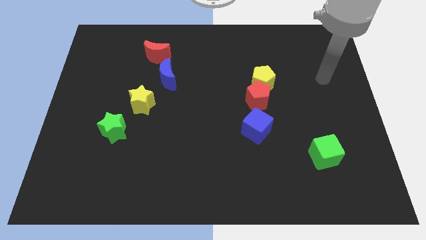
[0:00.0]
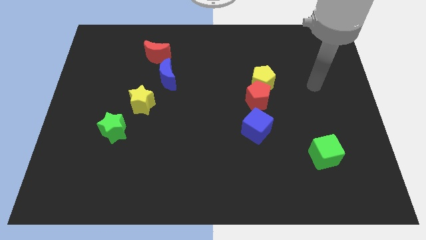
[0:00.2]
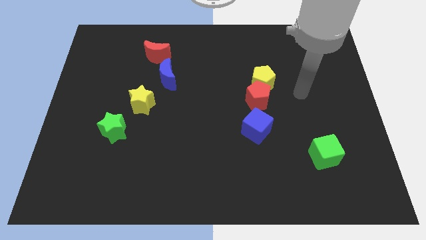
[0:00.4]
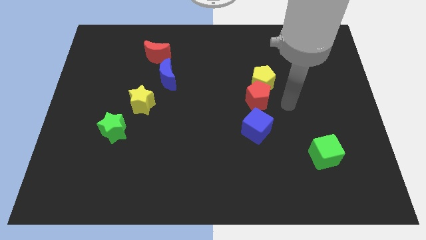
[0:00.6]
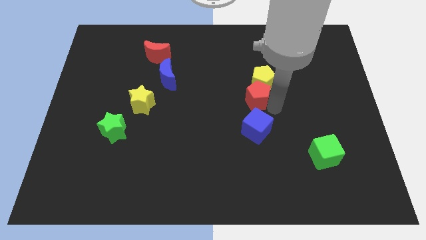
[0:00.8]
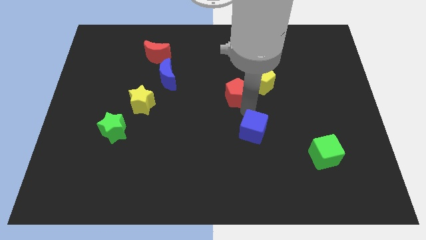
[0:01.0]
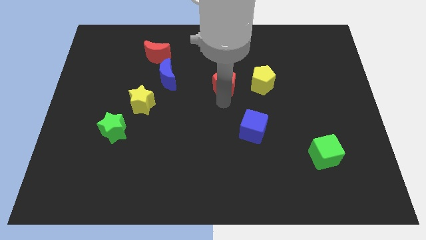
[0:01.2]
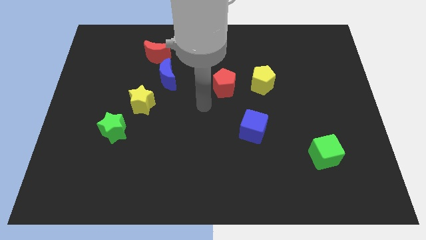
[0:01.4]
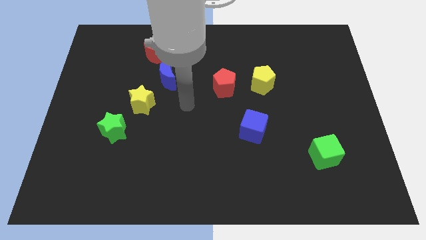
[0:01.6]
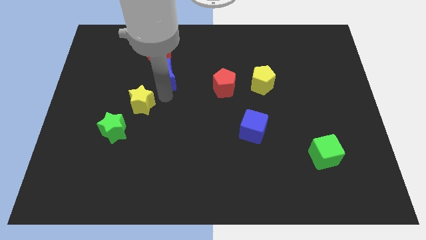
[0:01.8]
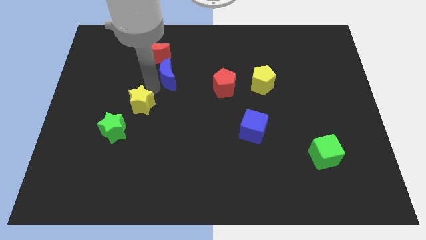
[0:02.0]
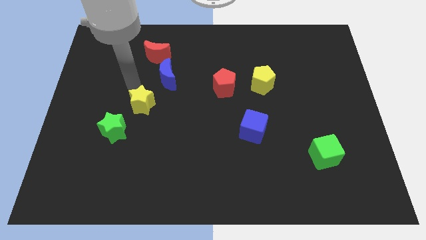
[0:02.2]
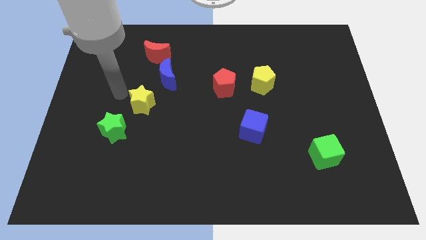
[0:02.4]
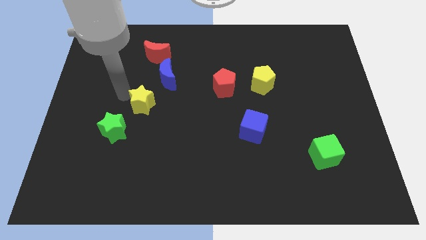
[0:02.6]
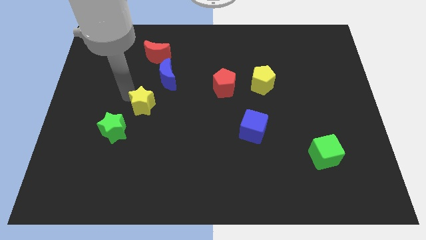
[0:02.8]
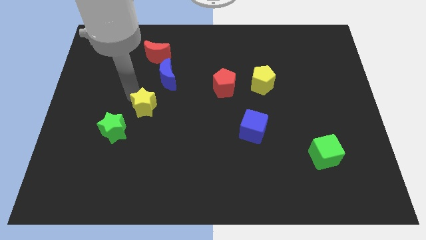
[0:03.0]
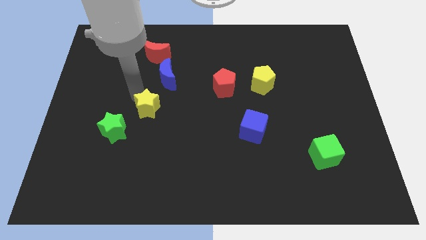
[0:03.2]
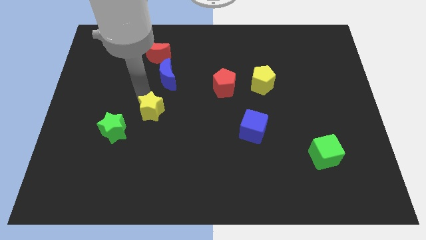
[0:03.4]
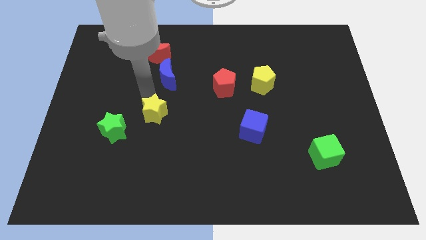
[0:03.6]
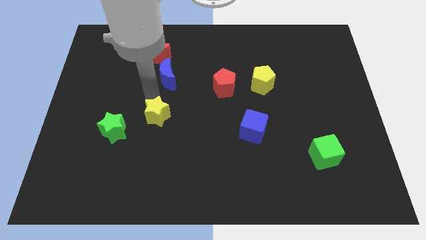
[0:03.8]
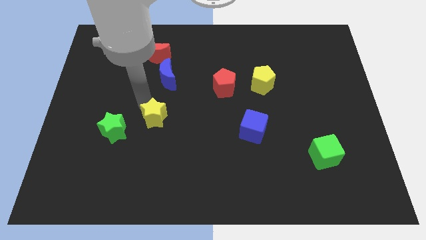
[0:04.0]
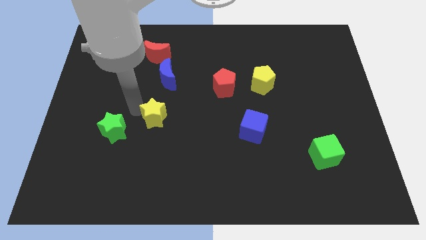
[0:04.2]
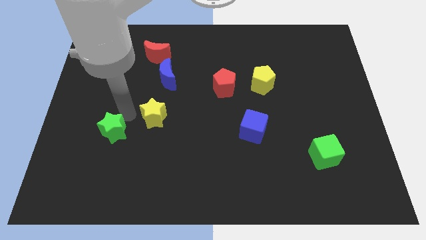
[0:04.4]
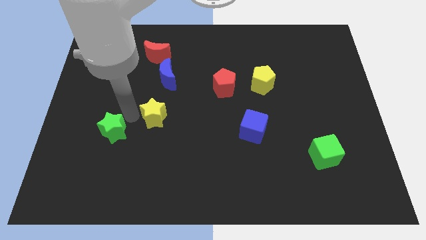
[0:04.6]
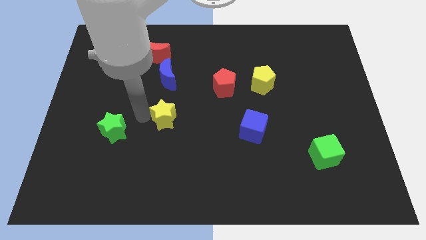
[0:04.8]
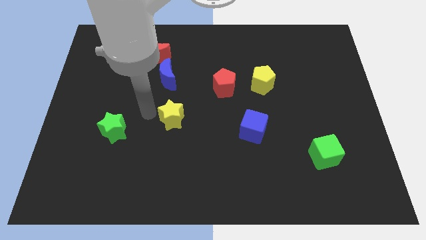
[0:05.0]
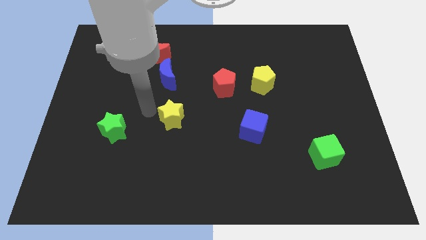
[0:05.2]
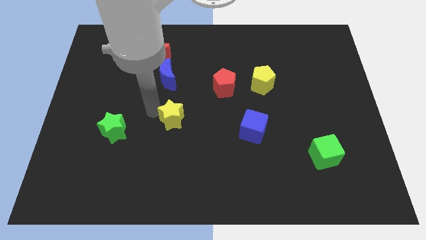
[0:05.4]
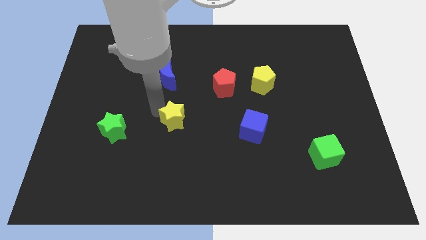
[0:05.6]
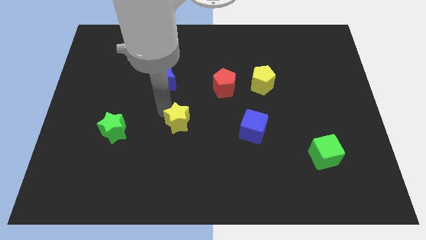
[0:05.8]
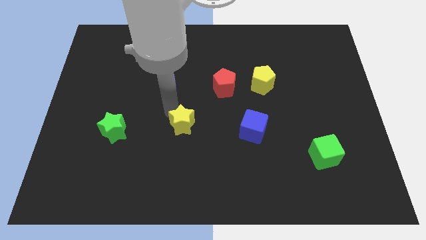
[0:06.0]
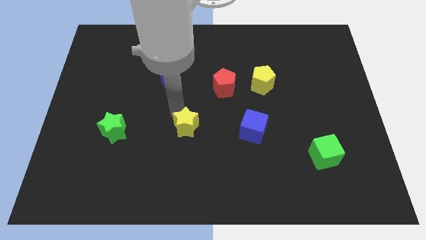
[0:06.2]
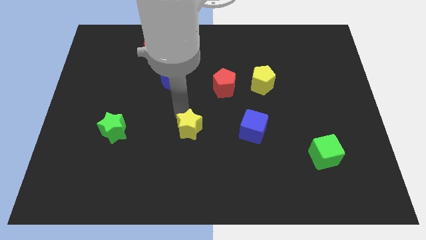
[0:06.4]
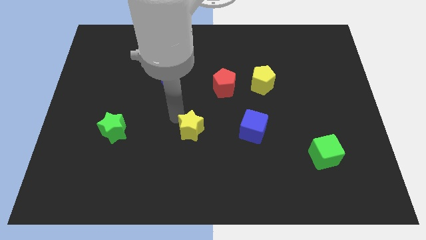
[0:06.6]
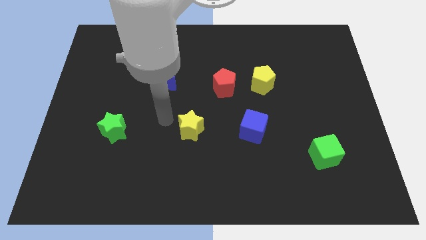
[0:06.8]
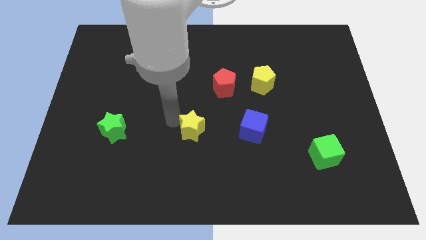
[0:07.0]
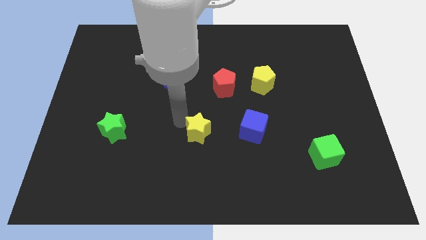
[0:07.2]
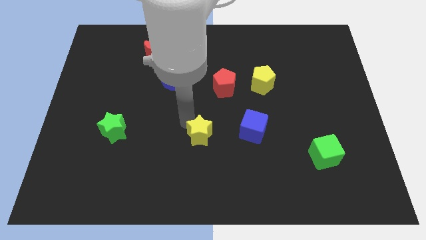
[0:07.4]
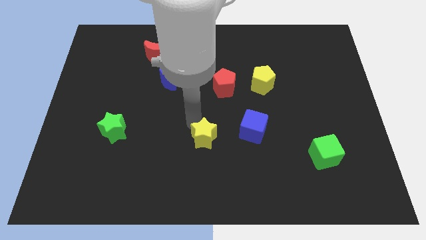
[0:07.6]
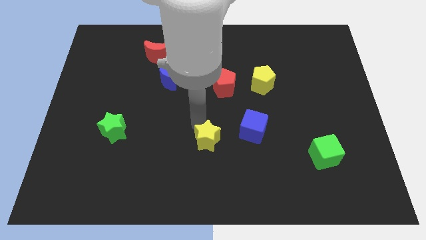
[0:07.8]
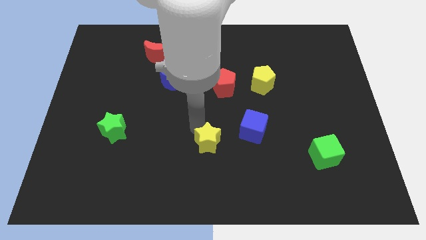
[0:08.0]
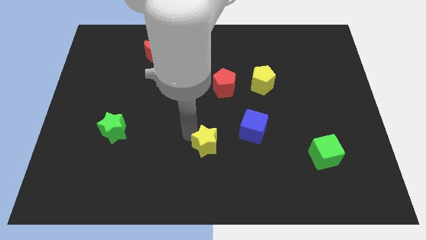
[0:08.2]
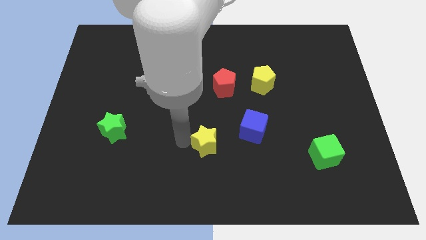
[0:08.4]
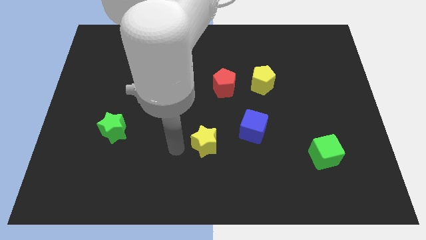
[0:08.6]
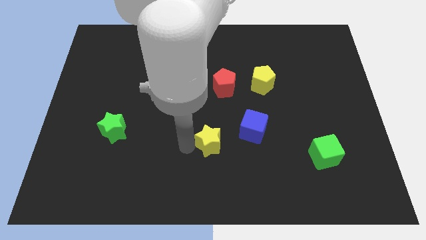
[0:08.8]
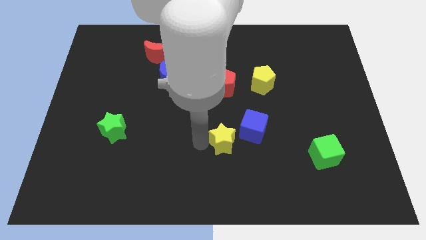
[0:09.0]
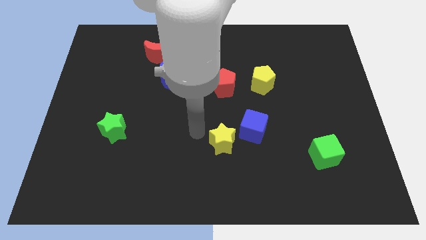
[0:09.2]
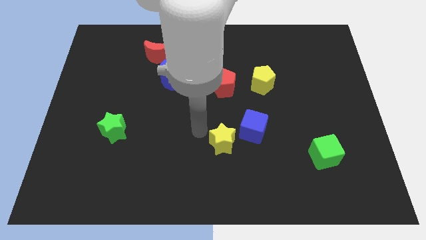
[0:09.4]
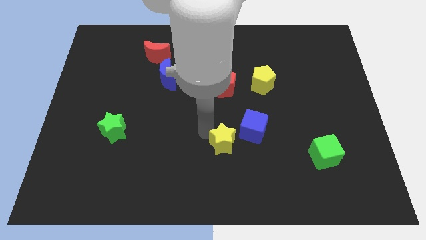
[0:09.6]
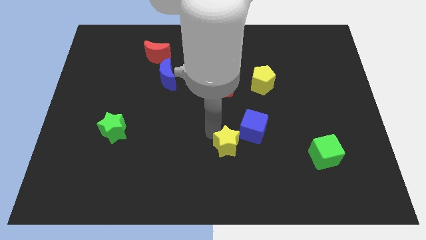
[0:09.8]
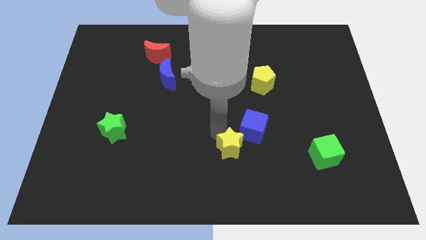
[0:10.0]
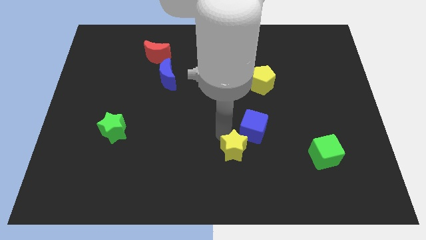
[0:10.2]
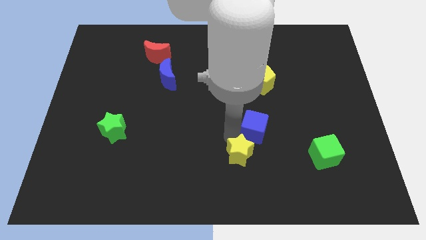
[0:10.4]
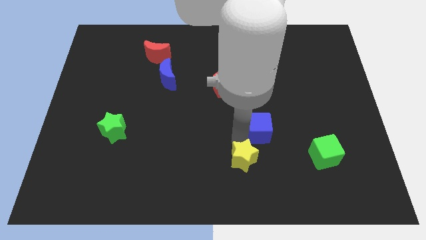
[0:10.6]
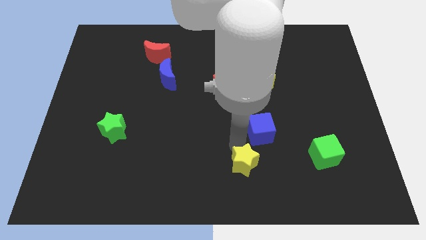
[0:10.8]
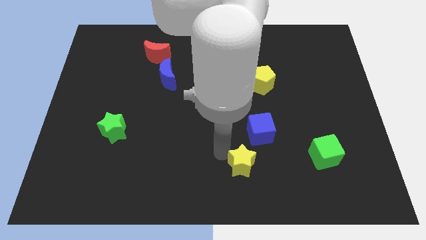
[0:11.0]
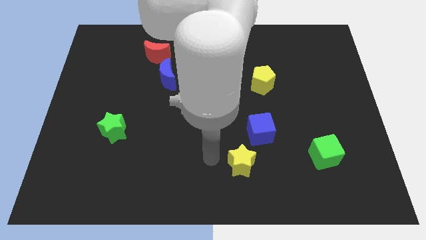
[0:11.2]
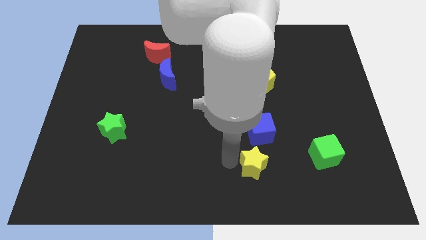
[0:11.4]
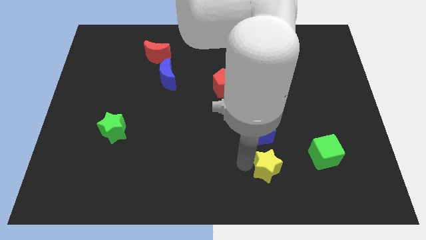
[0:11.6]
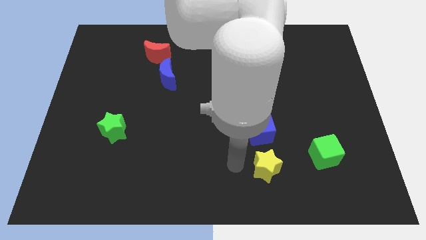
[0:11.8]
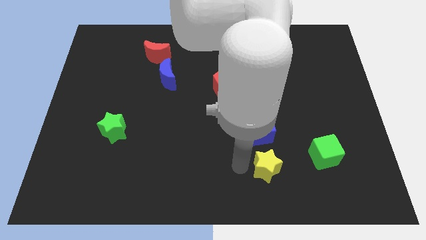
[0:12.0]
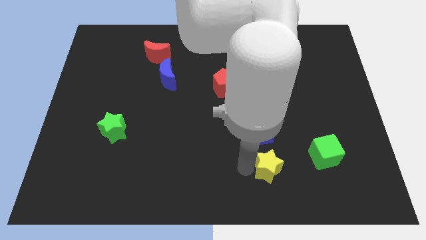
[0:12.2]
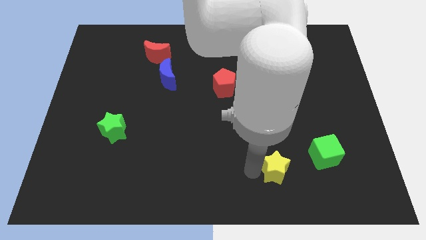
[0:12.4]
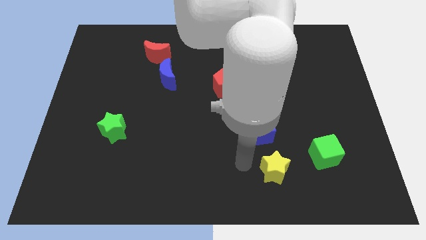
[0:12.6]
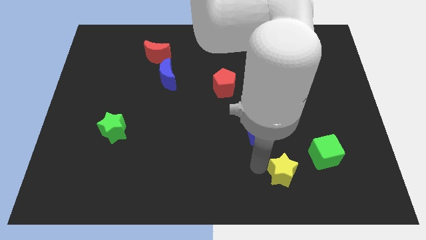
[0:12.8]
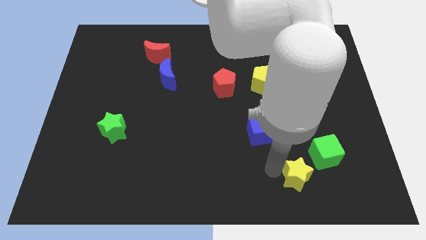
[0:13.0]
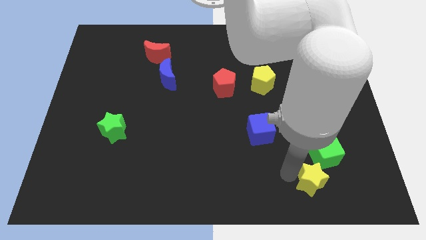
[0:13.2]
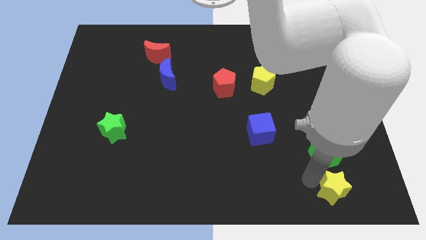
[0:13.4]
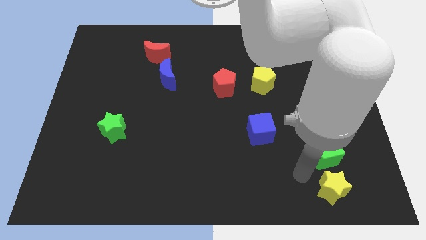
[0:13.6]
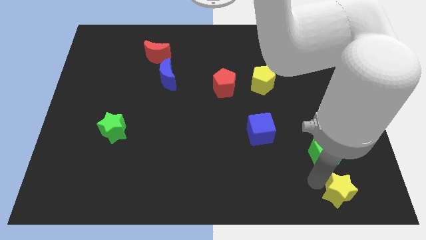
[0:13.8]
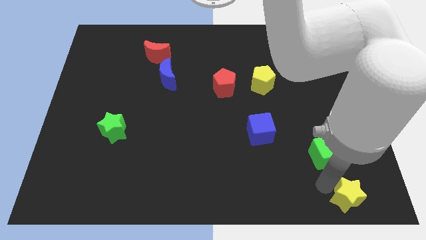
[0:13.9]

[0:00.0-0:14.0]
slide the yellow star to the bottom right
